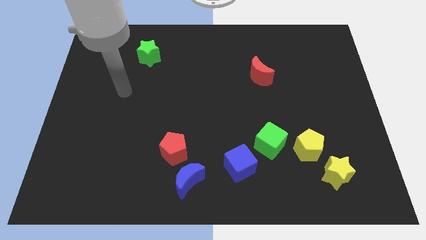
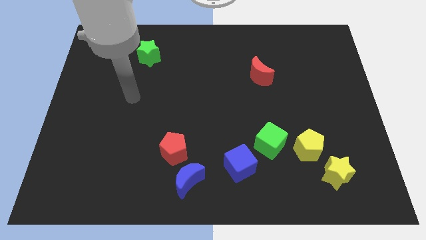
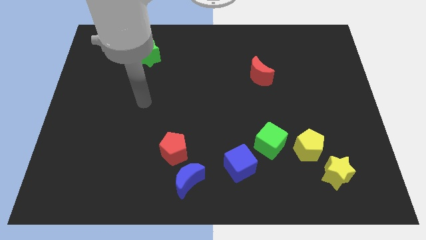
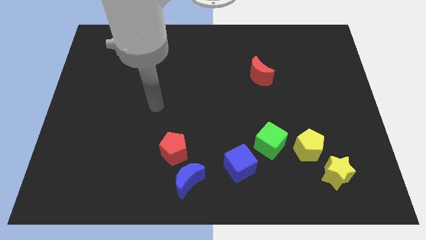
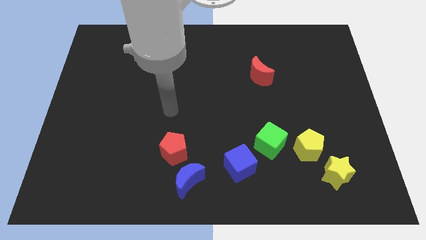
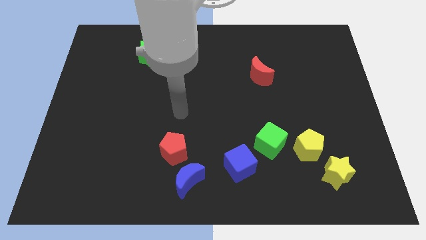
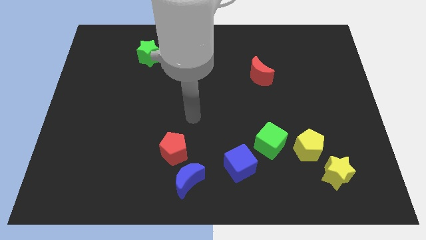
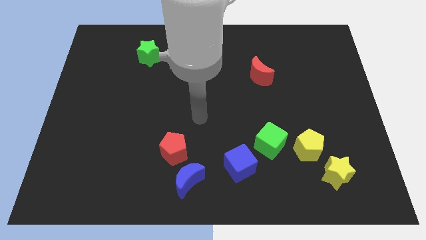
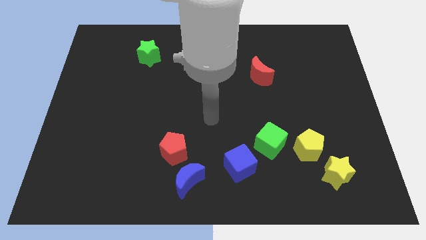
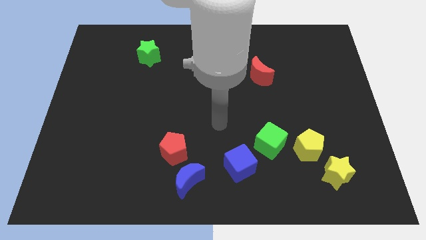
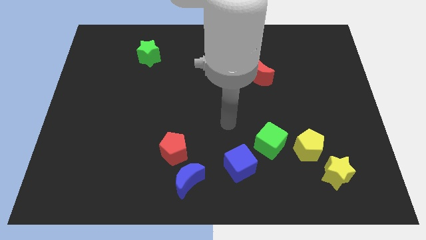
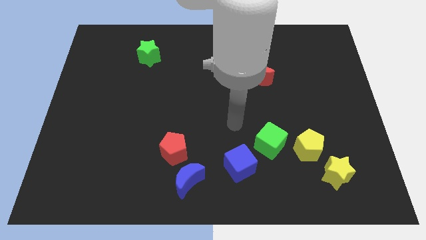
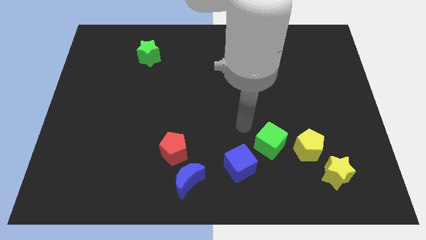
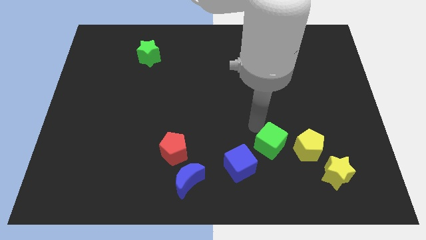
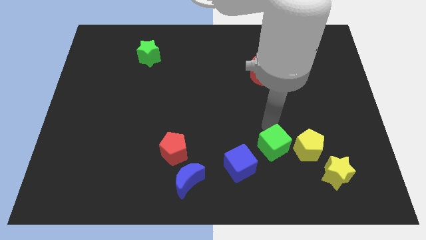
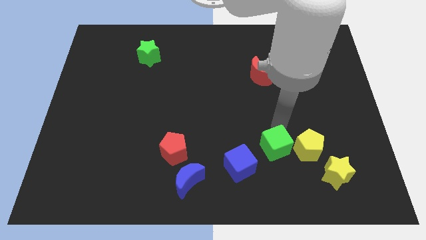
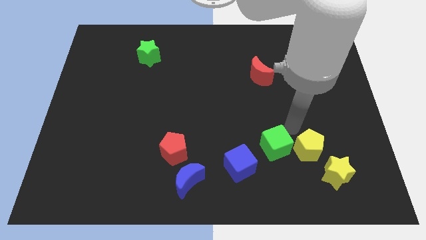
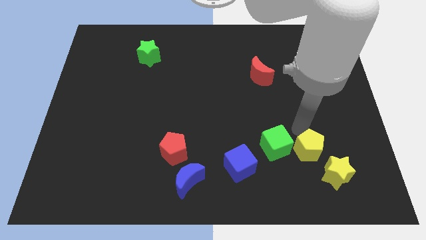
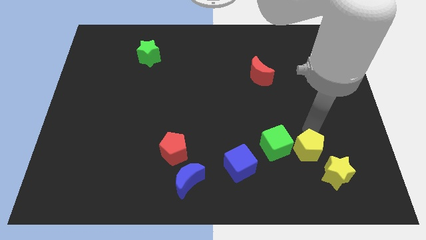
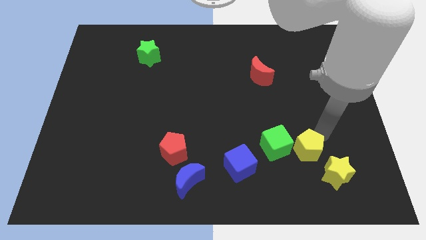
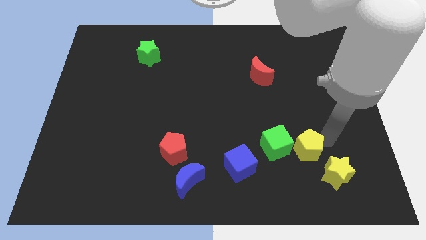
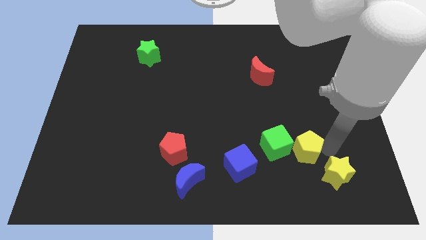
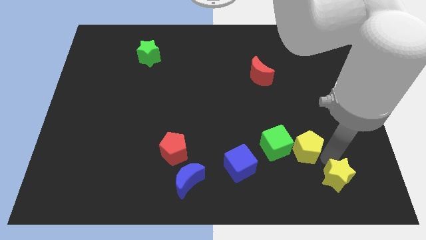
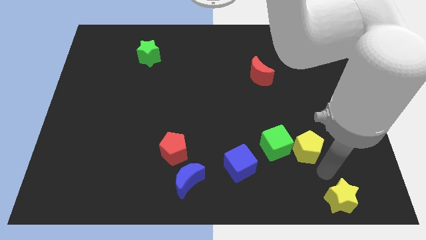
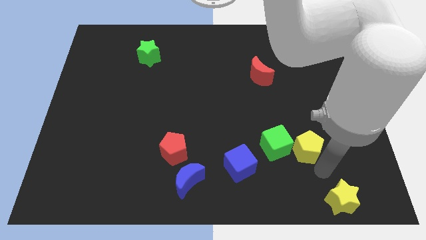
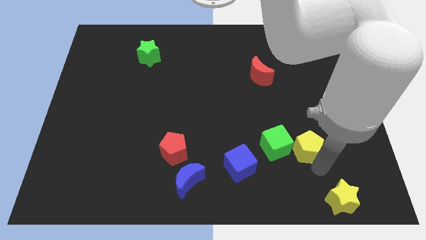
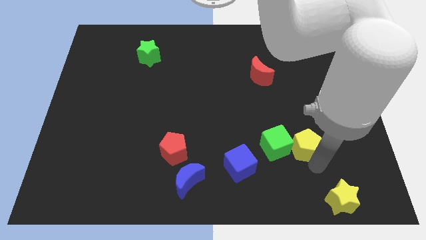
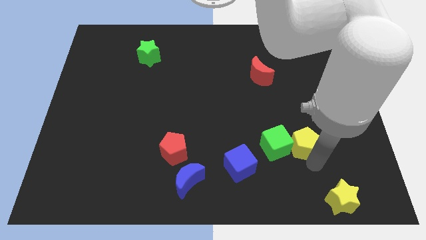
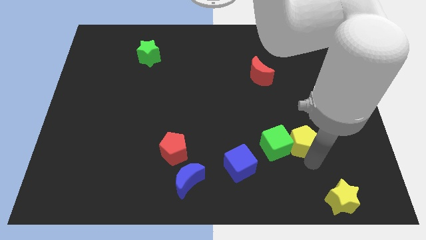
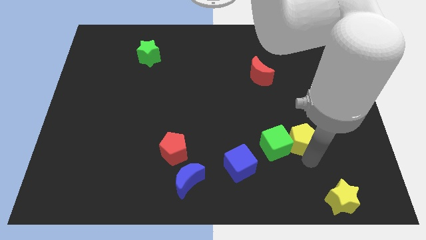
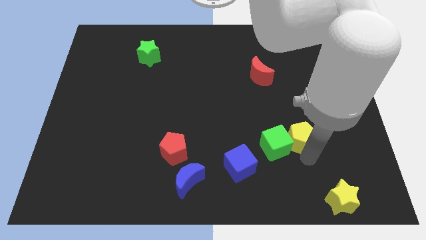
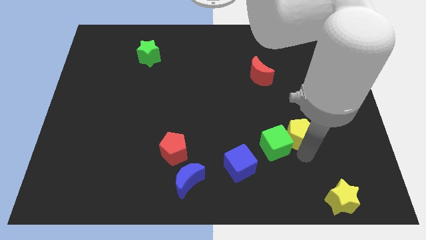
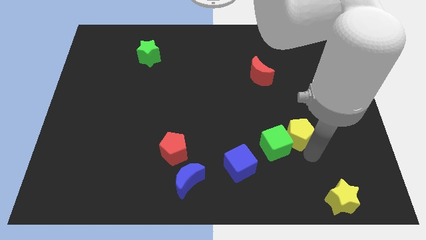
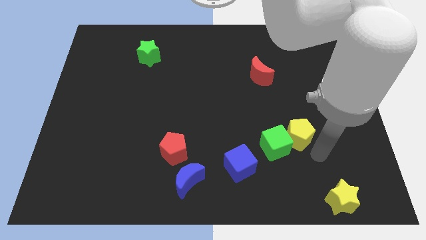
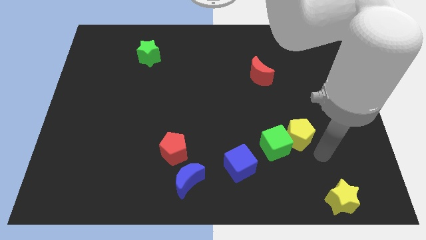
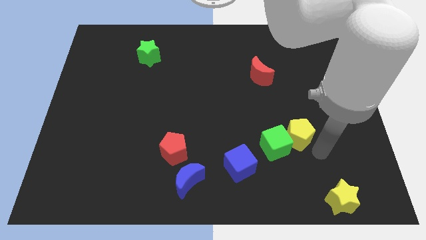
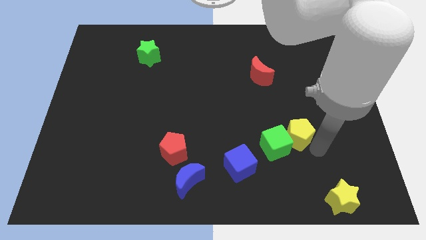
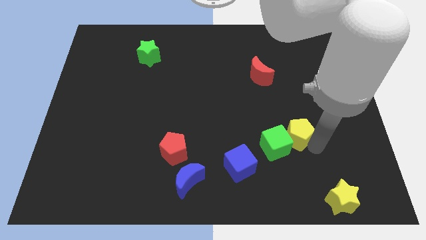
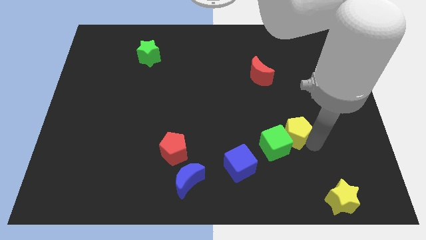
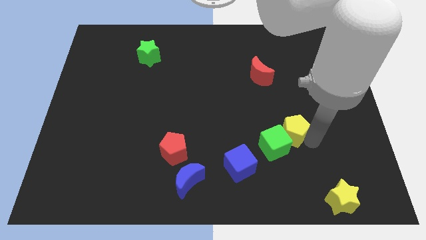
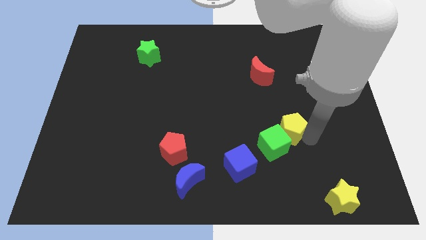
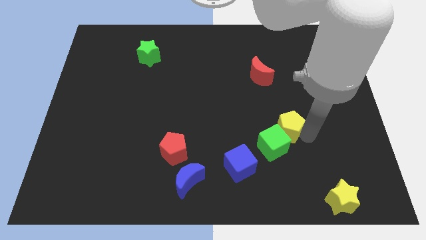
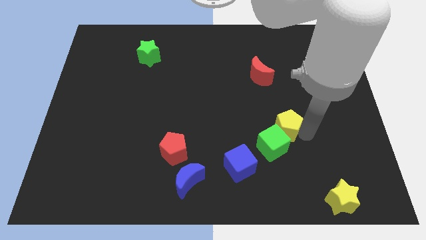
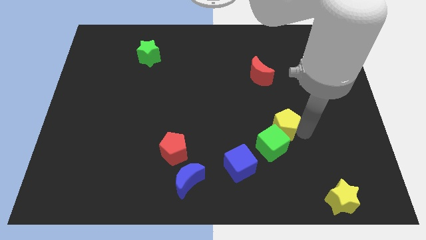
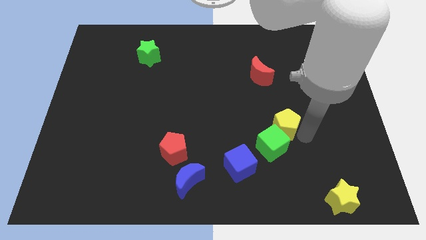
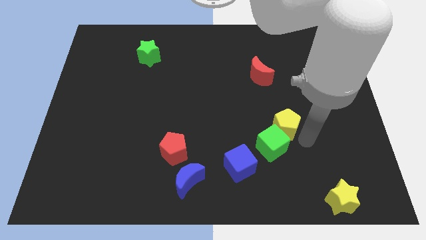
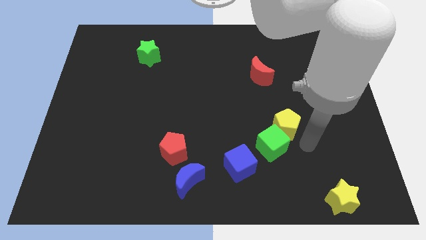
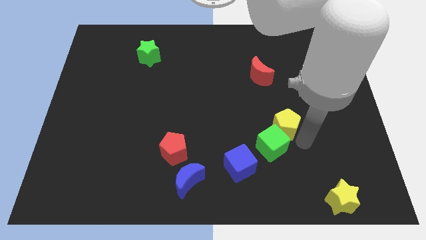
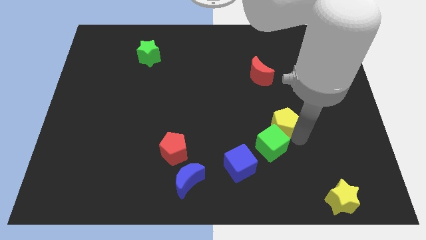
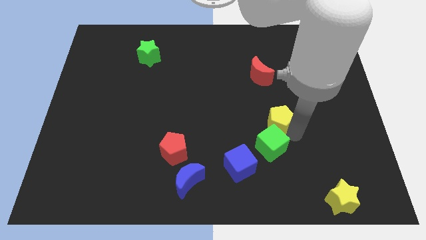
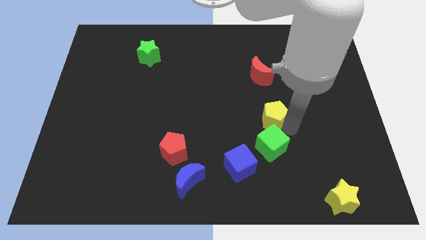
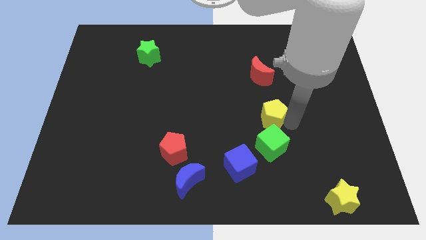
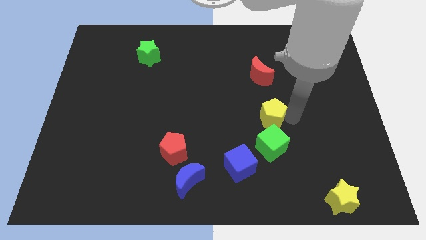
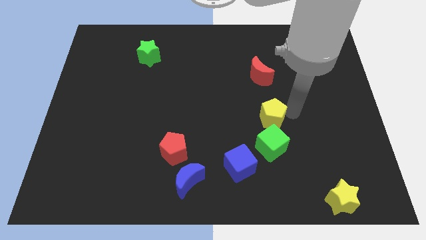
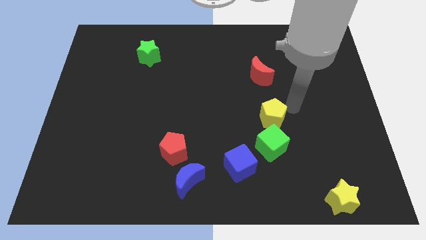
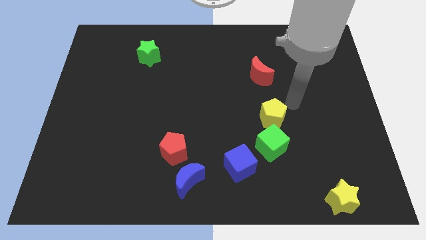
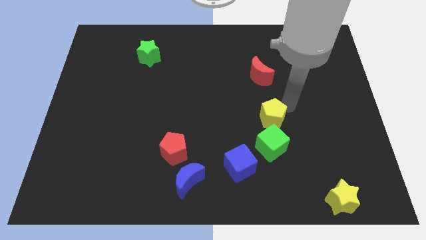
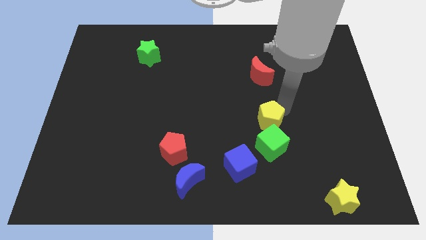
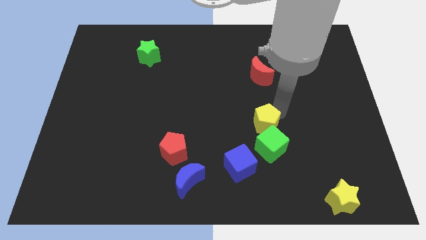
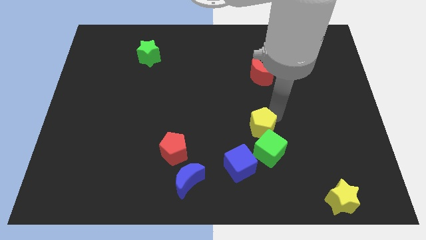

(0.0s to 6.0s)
move the yellow pentagon slightly left

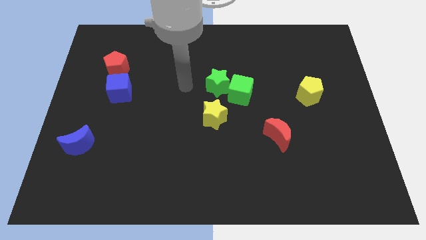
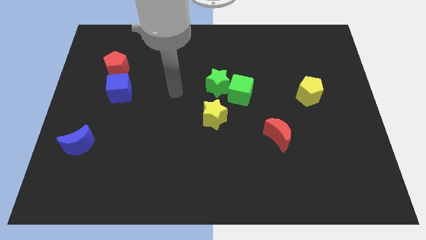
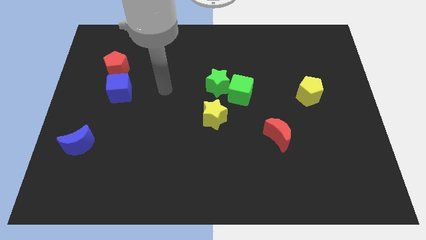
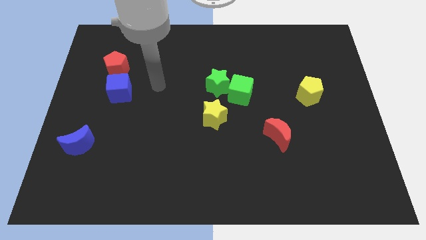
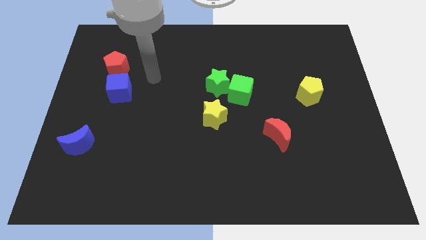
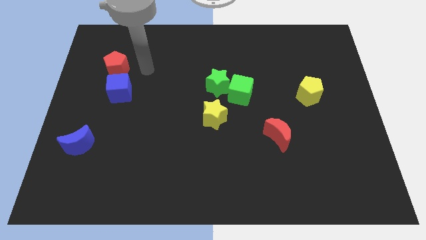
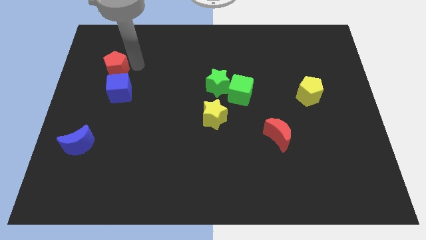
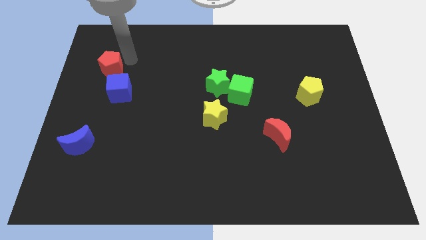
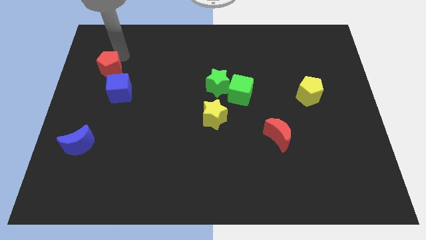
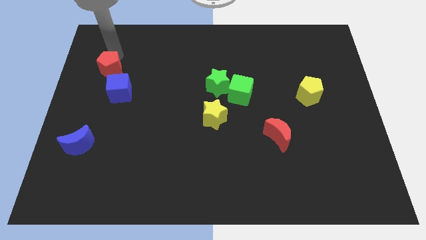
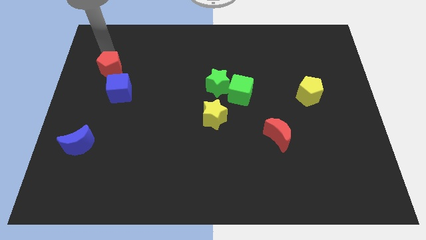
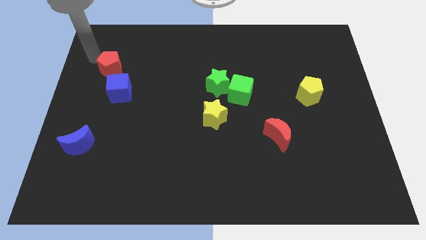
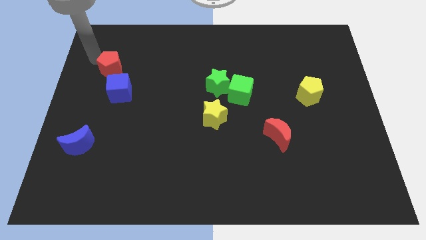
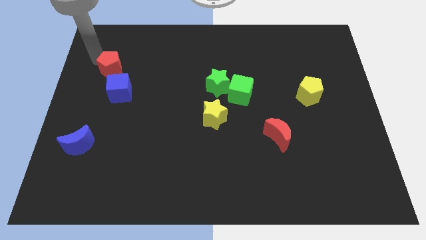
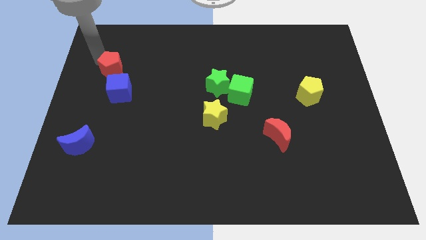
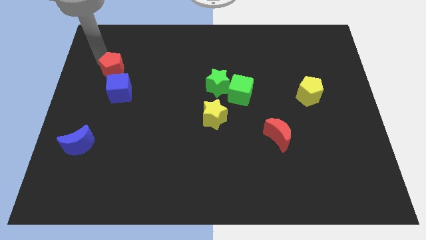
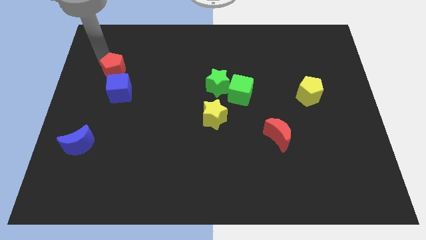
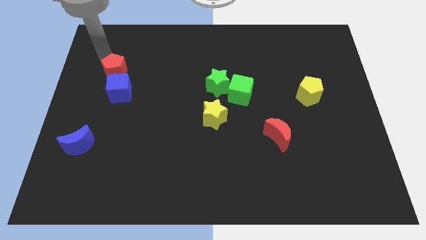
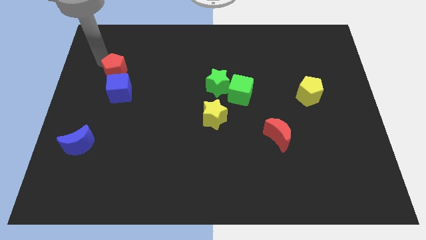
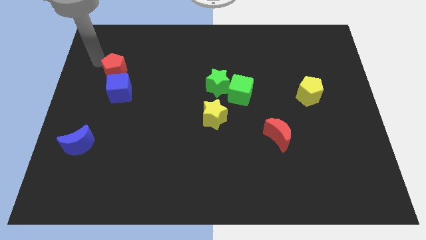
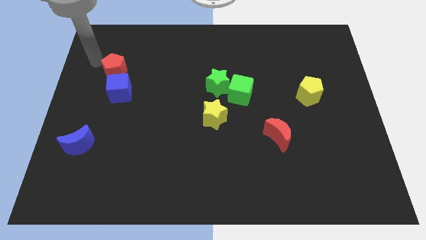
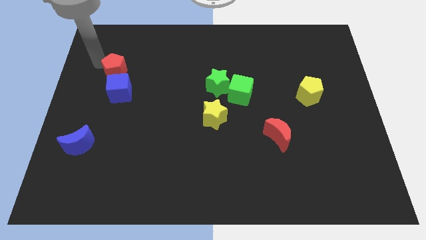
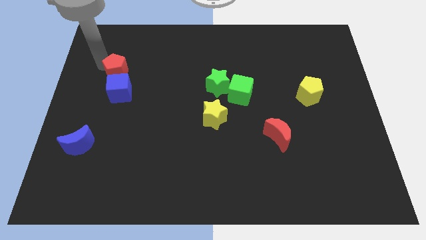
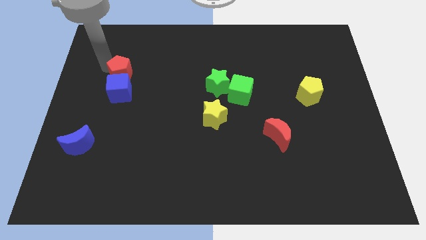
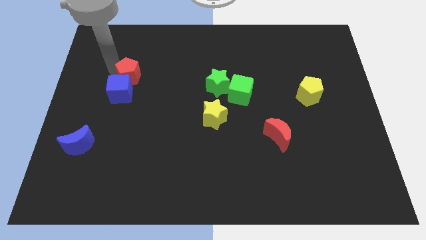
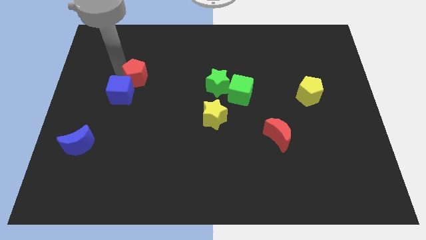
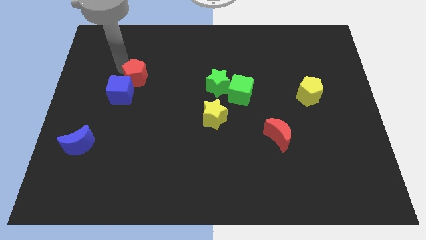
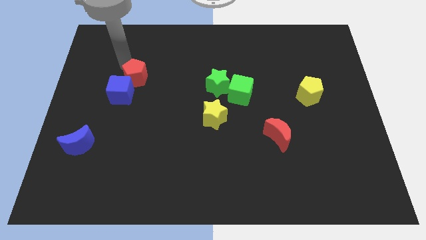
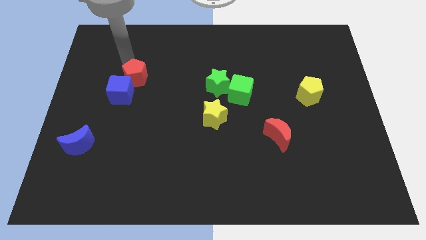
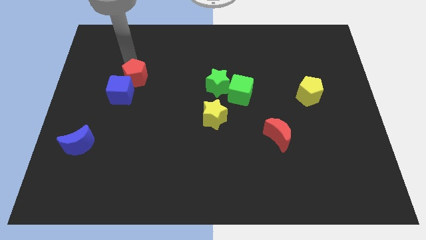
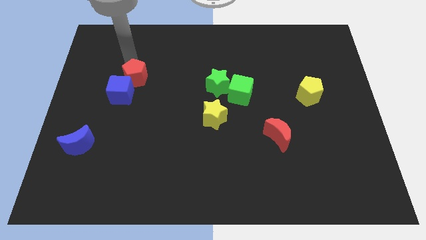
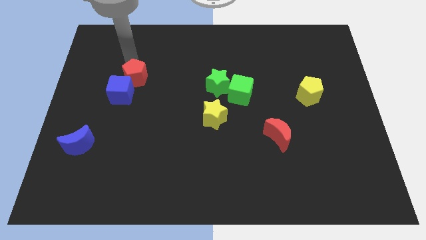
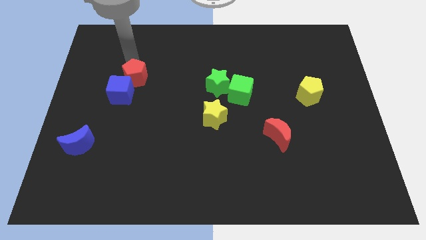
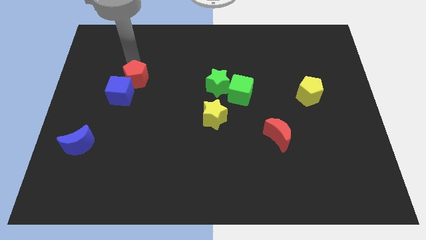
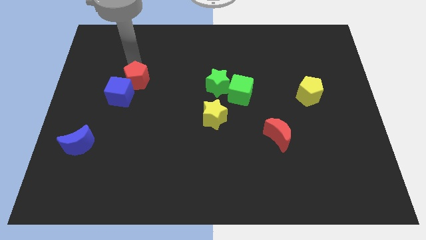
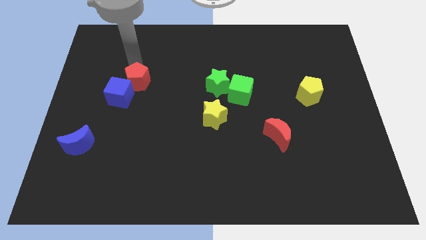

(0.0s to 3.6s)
move the red pentagon diagonally downwards and to the right slightly
